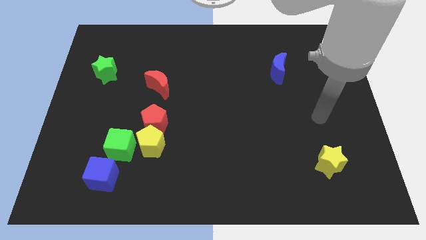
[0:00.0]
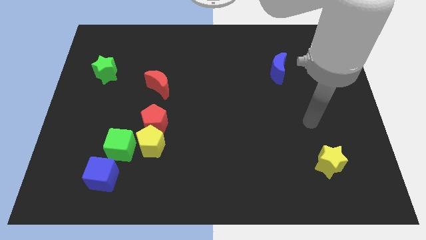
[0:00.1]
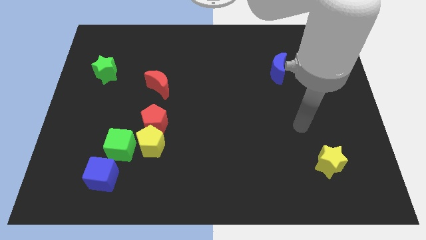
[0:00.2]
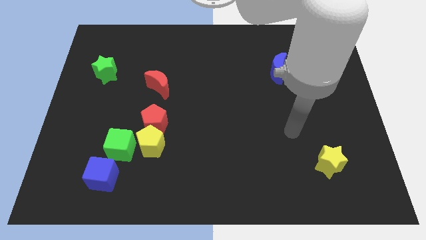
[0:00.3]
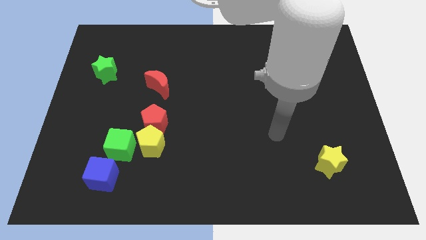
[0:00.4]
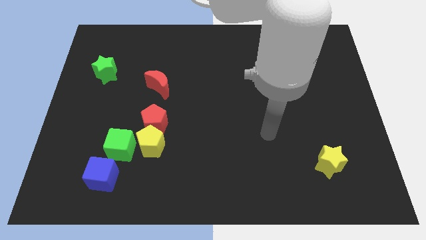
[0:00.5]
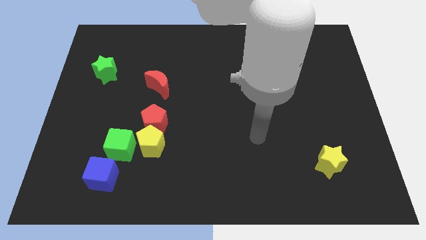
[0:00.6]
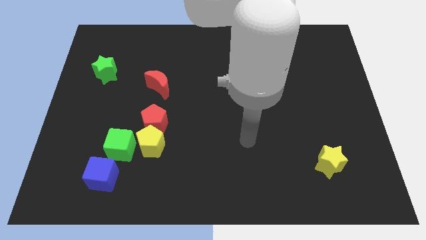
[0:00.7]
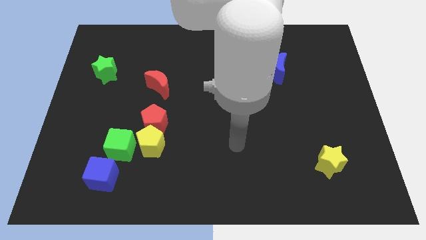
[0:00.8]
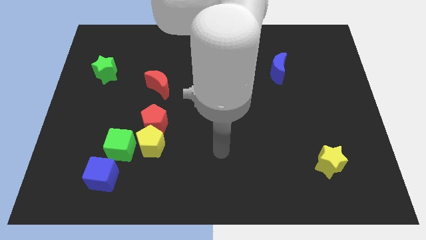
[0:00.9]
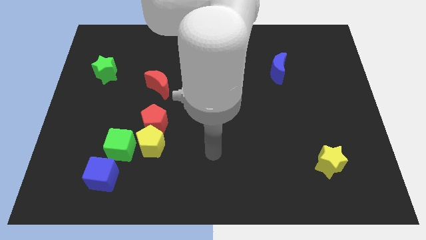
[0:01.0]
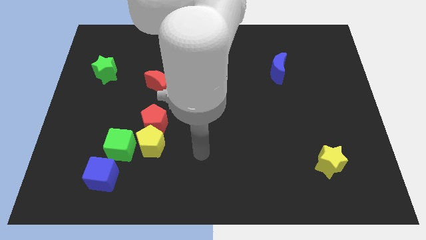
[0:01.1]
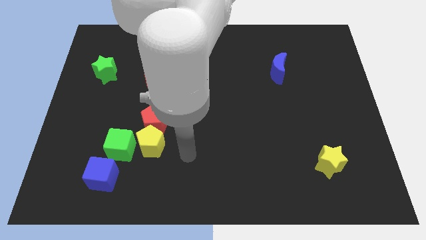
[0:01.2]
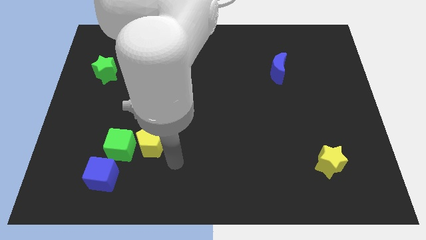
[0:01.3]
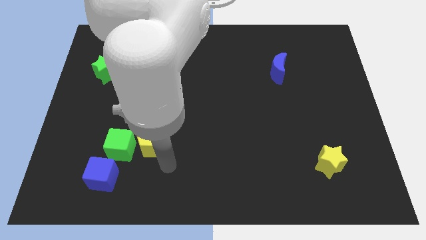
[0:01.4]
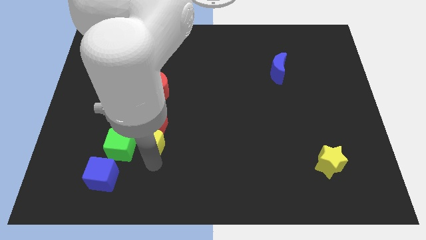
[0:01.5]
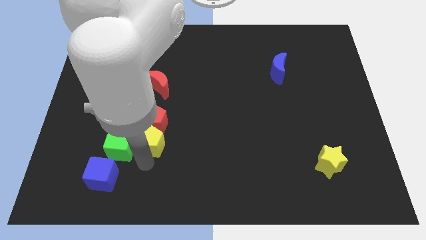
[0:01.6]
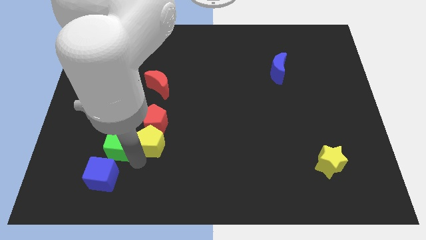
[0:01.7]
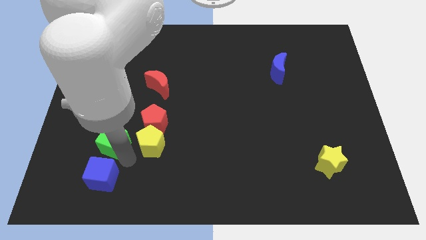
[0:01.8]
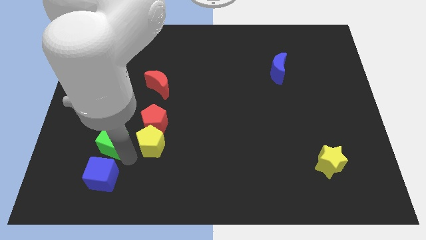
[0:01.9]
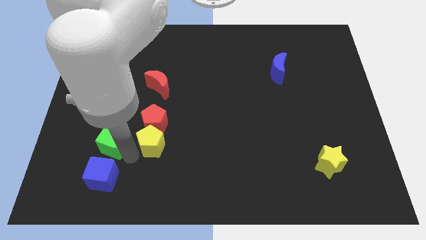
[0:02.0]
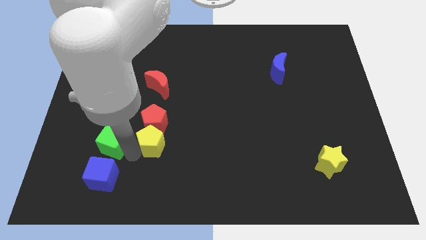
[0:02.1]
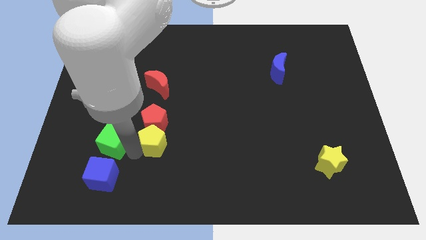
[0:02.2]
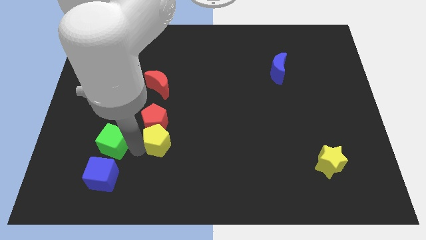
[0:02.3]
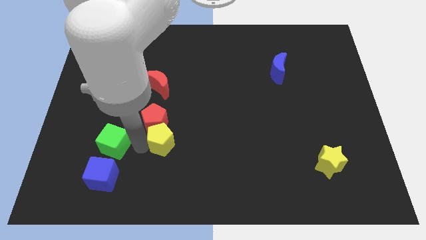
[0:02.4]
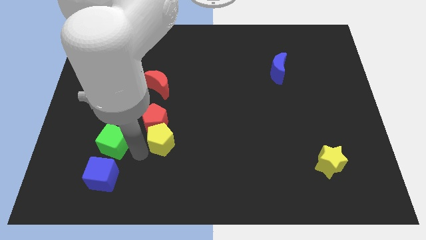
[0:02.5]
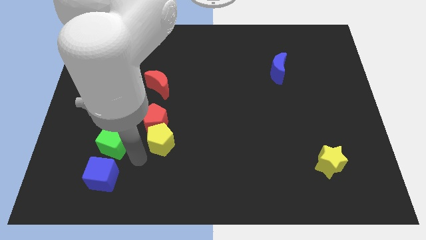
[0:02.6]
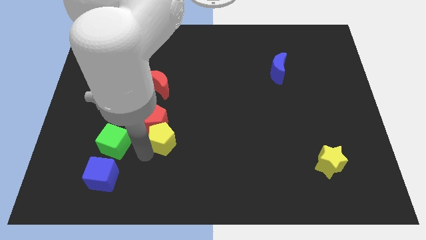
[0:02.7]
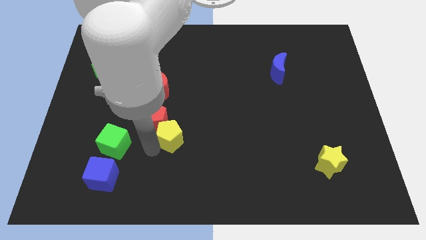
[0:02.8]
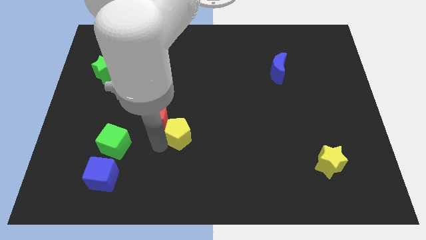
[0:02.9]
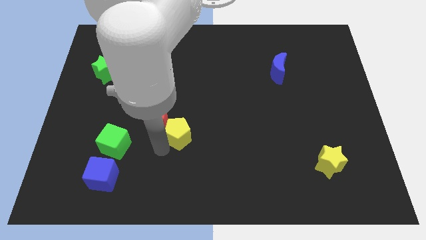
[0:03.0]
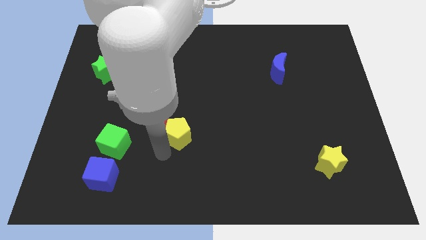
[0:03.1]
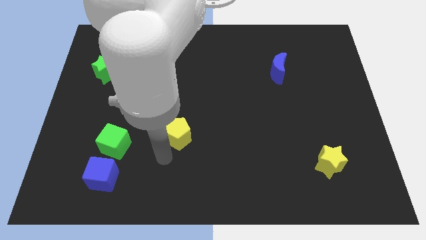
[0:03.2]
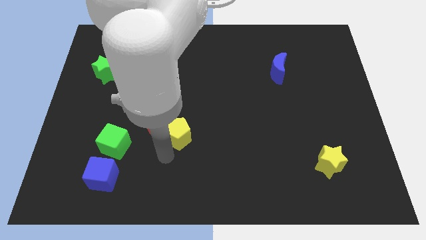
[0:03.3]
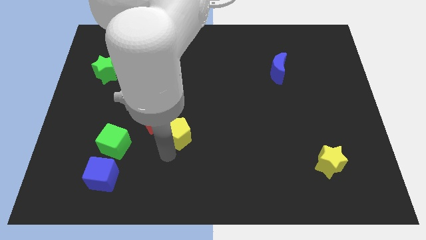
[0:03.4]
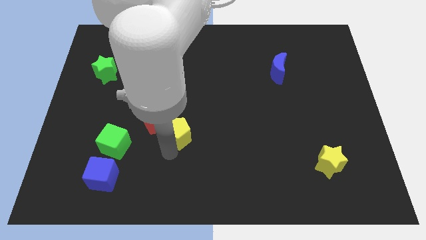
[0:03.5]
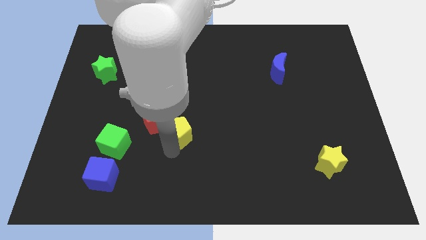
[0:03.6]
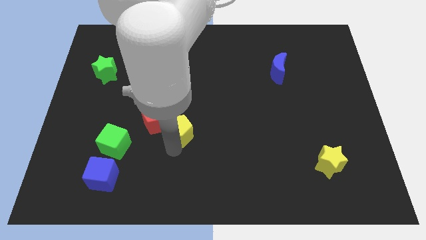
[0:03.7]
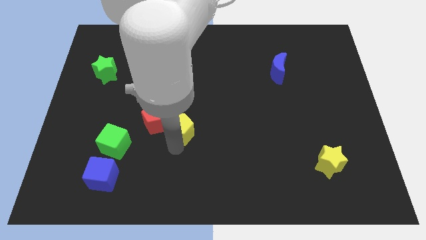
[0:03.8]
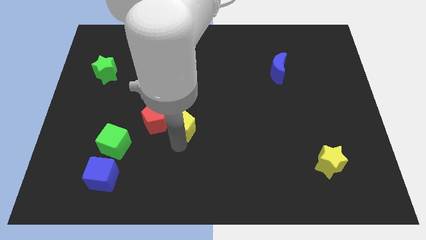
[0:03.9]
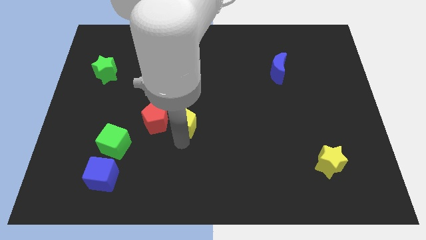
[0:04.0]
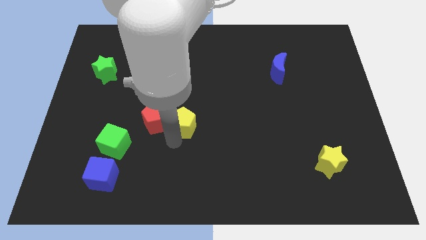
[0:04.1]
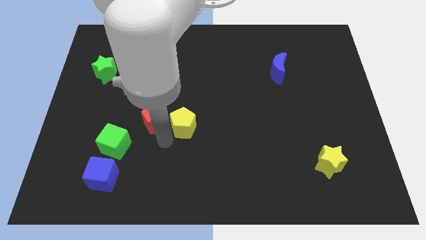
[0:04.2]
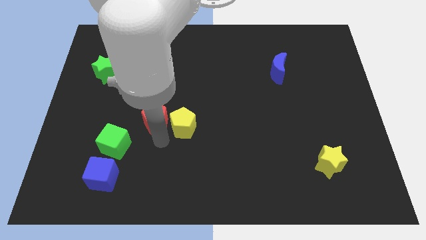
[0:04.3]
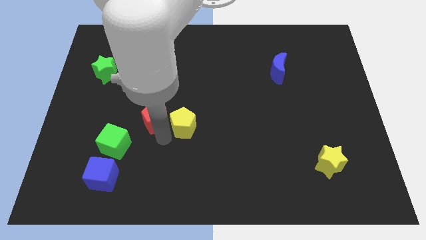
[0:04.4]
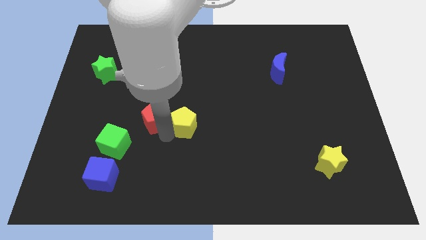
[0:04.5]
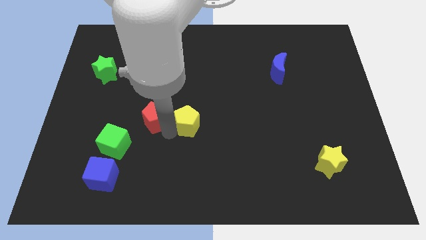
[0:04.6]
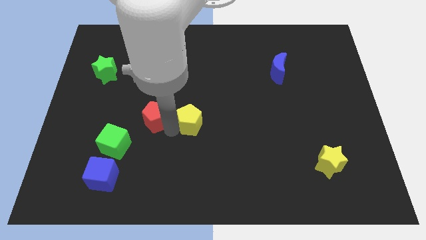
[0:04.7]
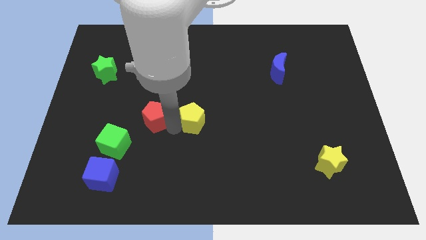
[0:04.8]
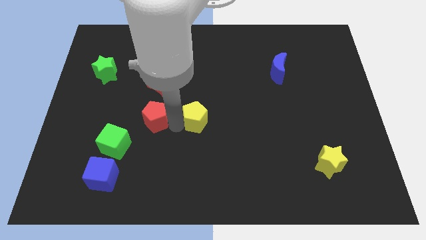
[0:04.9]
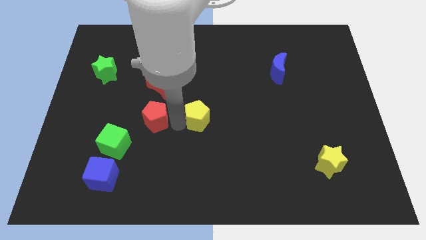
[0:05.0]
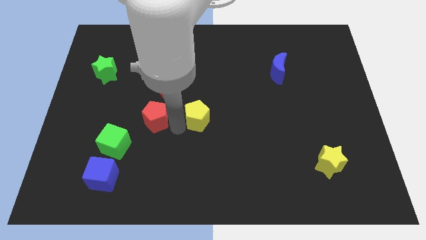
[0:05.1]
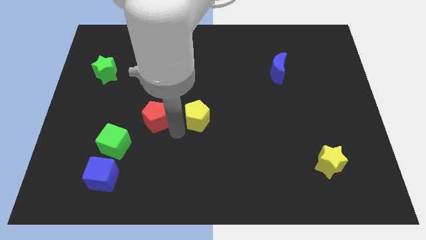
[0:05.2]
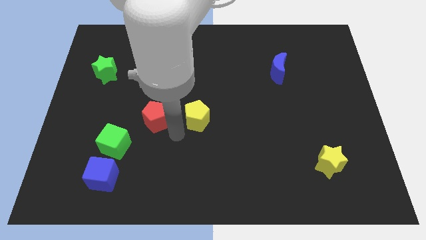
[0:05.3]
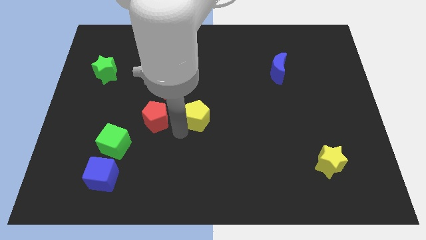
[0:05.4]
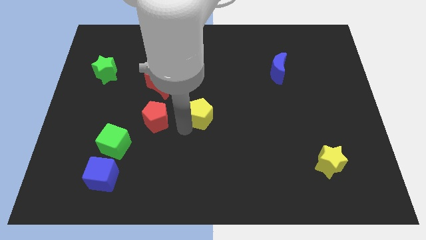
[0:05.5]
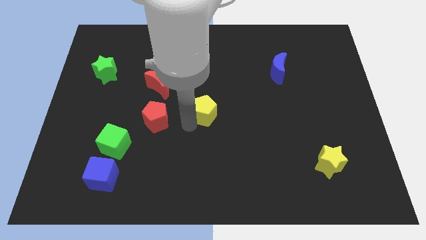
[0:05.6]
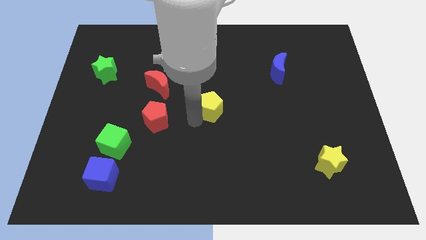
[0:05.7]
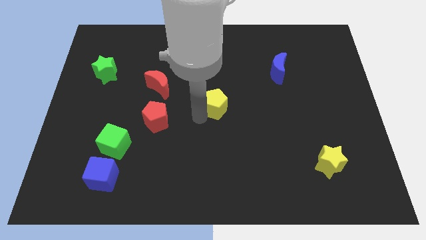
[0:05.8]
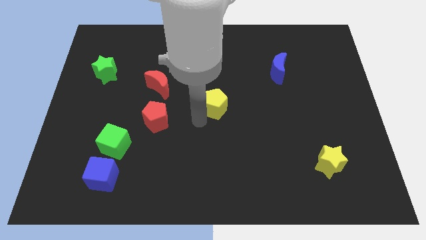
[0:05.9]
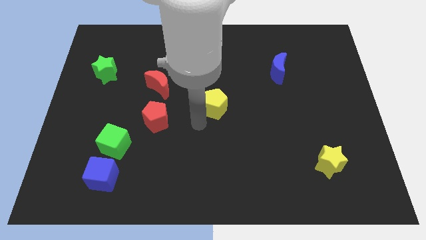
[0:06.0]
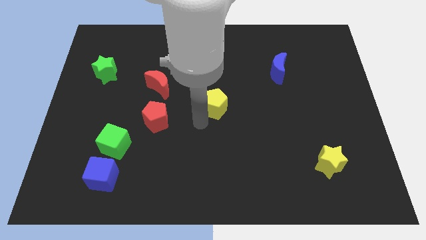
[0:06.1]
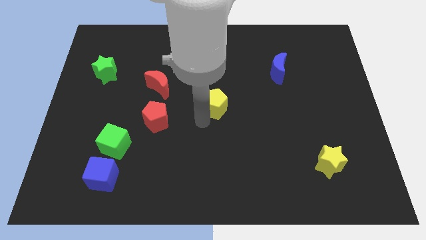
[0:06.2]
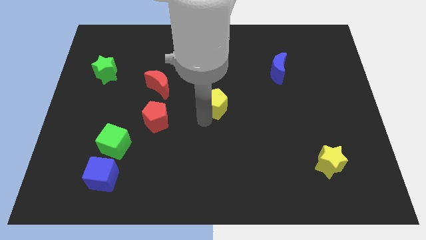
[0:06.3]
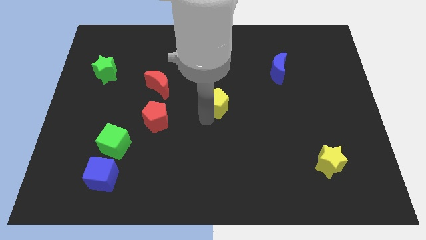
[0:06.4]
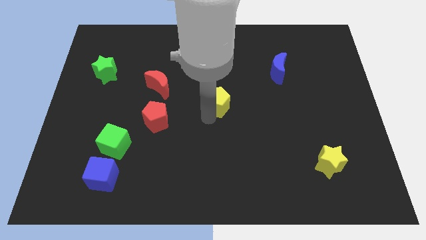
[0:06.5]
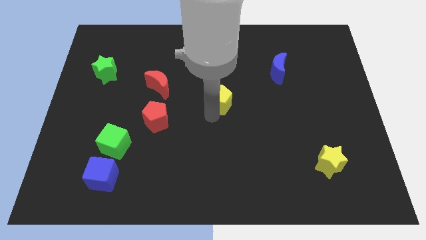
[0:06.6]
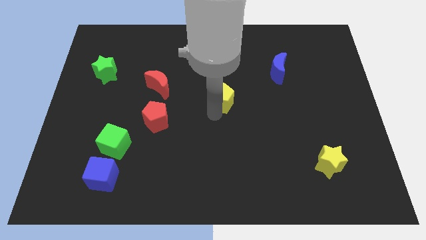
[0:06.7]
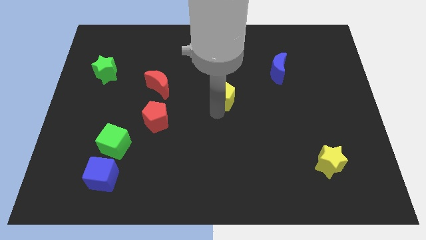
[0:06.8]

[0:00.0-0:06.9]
push the yellow pentagon diagonally upwards and to the right

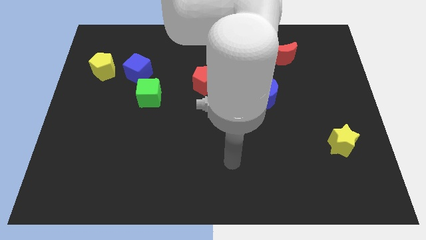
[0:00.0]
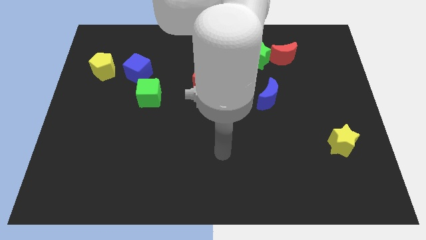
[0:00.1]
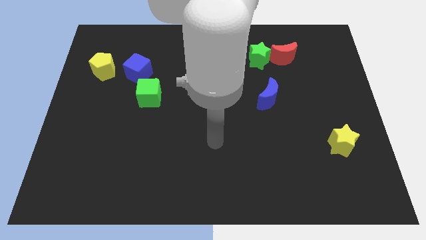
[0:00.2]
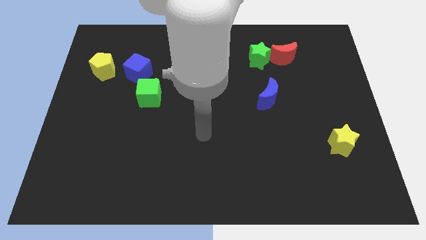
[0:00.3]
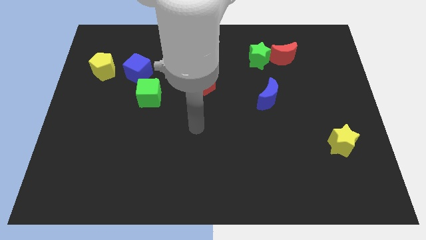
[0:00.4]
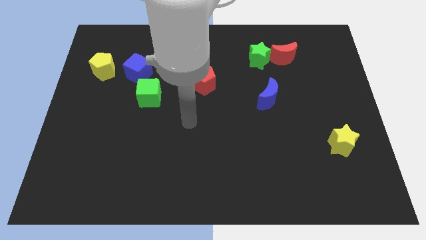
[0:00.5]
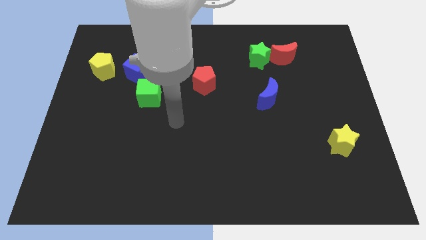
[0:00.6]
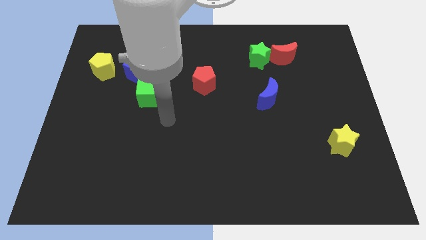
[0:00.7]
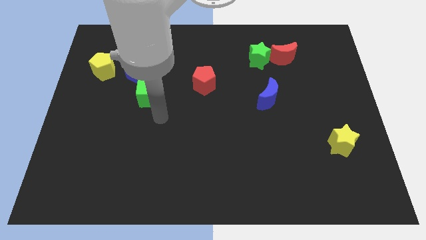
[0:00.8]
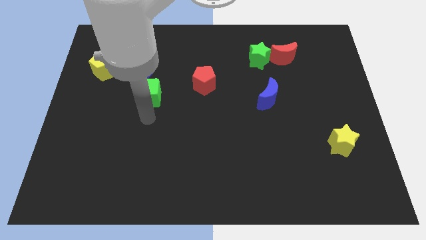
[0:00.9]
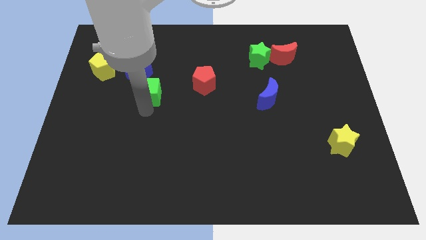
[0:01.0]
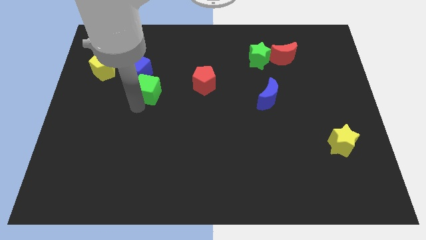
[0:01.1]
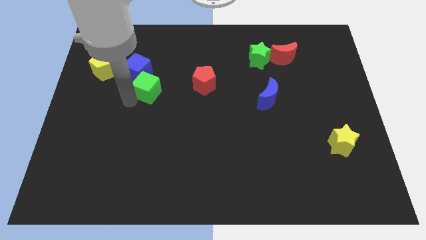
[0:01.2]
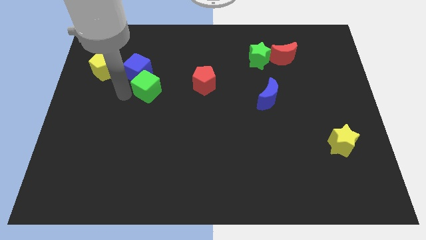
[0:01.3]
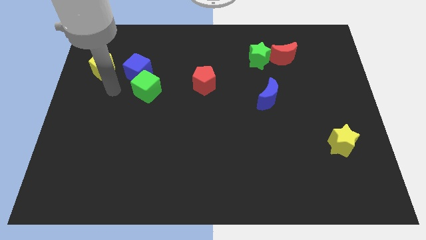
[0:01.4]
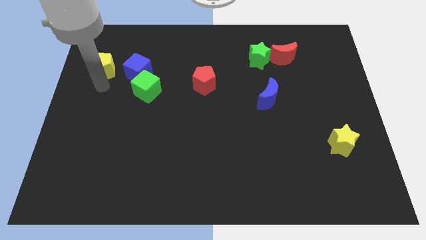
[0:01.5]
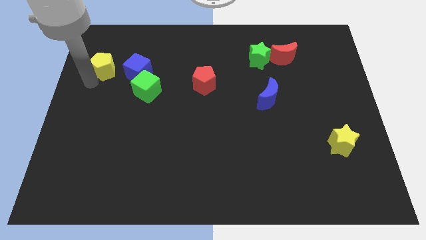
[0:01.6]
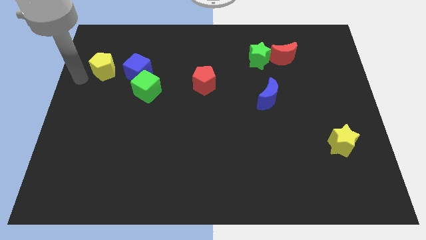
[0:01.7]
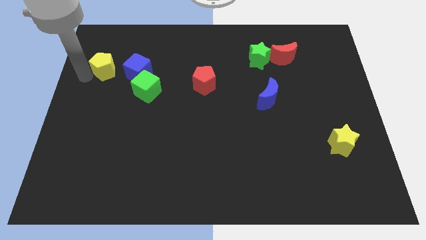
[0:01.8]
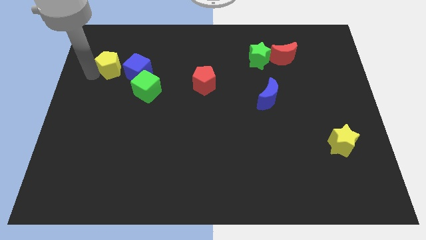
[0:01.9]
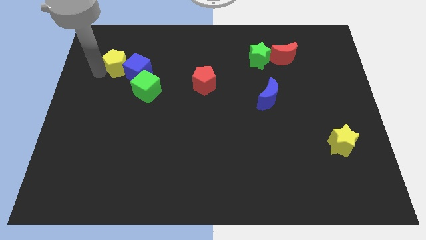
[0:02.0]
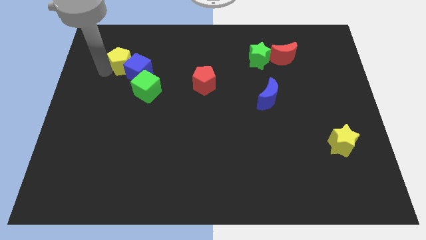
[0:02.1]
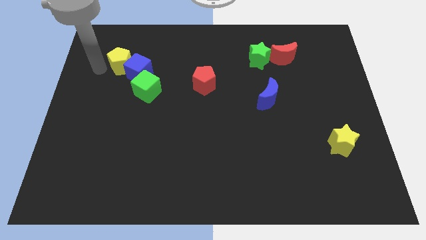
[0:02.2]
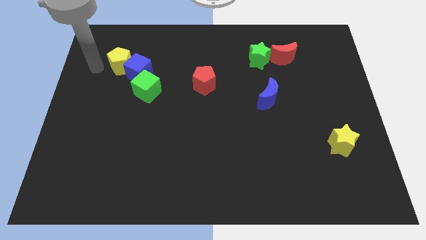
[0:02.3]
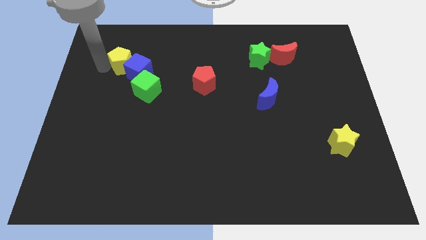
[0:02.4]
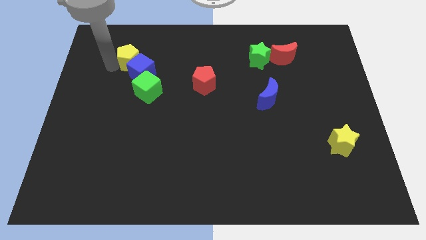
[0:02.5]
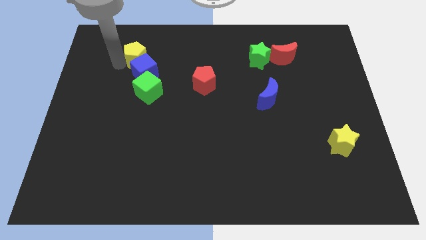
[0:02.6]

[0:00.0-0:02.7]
slide the yellow pentagon to the right slightly
